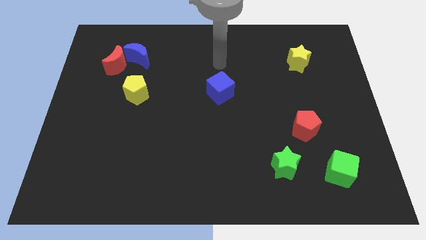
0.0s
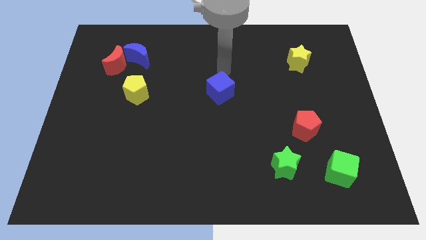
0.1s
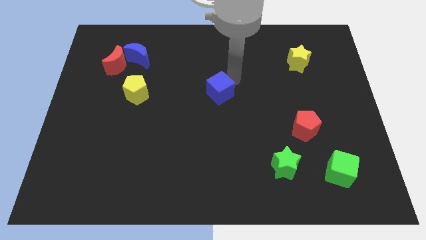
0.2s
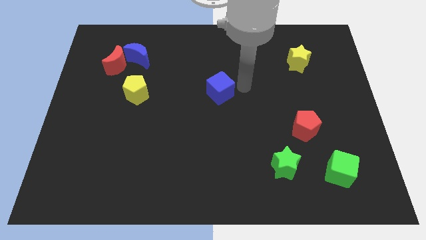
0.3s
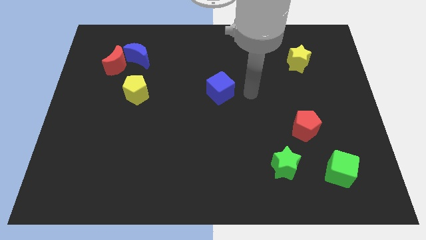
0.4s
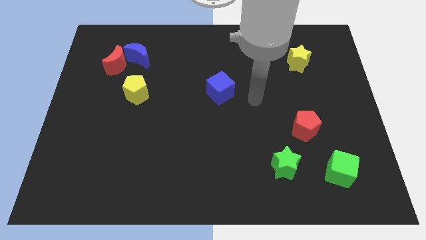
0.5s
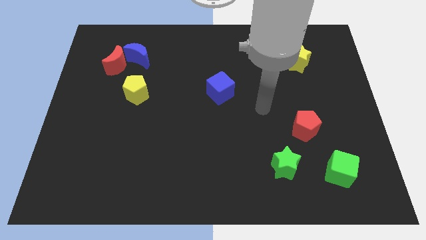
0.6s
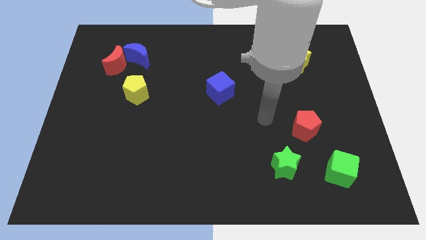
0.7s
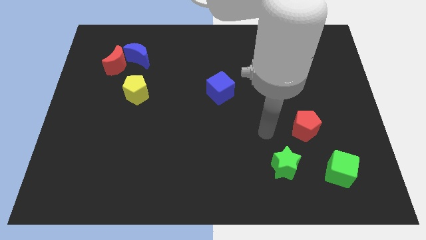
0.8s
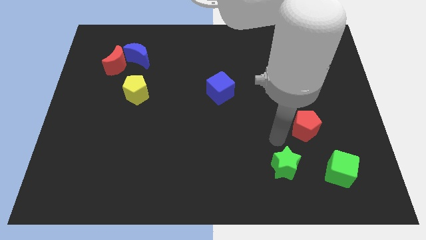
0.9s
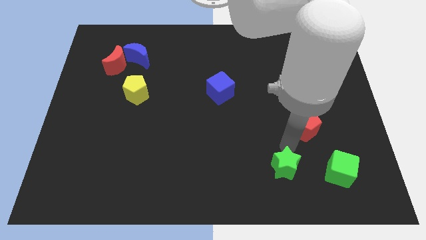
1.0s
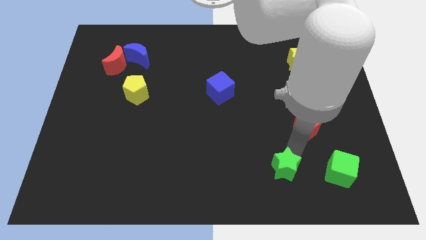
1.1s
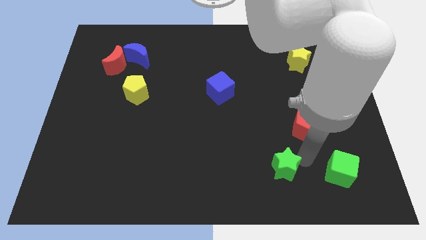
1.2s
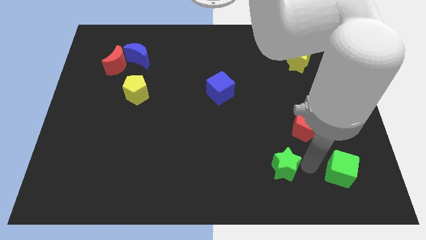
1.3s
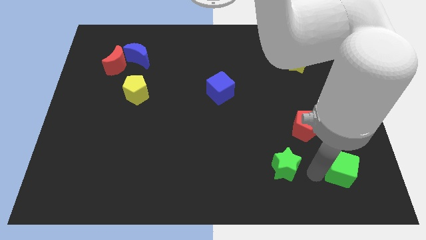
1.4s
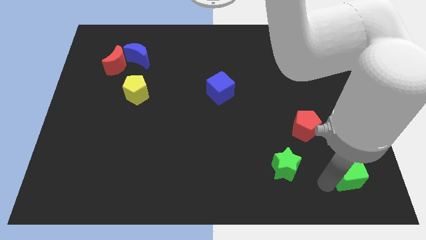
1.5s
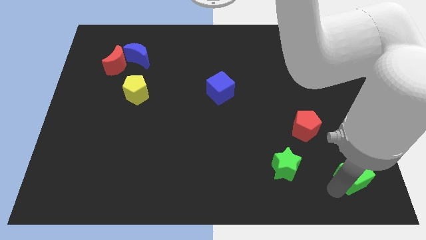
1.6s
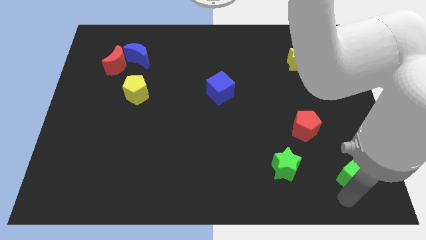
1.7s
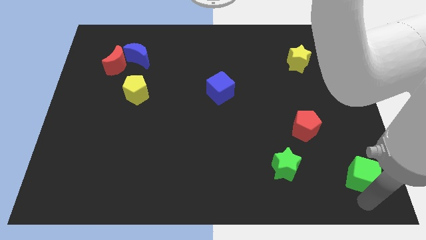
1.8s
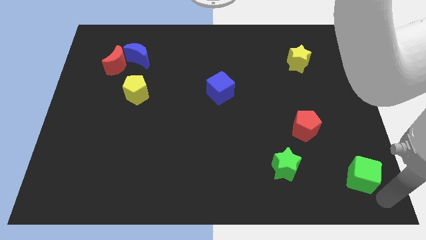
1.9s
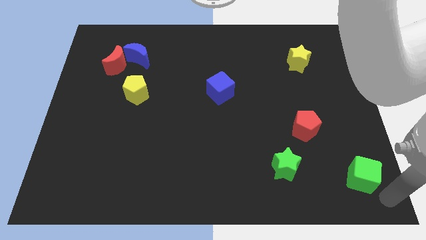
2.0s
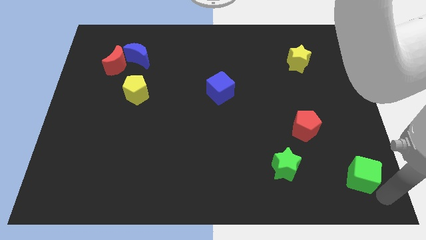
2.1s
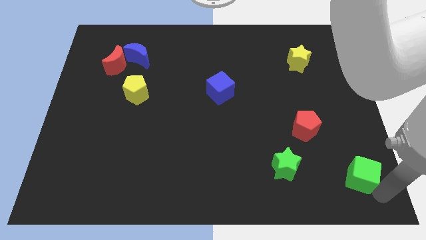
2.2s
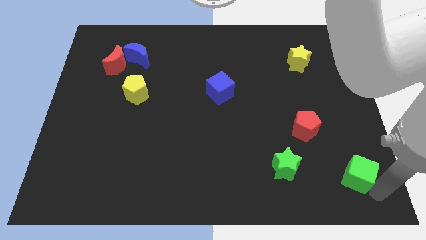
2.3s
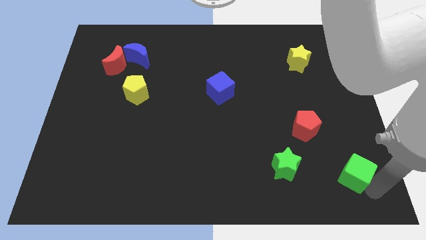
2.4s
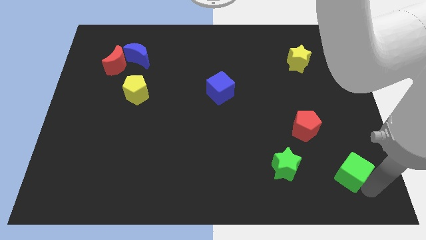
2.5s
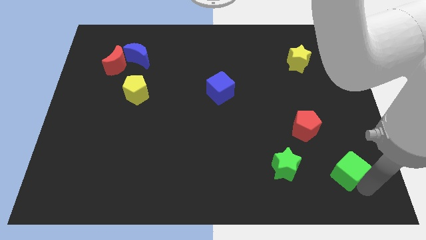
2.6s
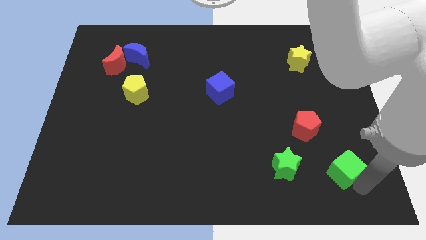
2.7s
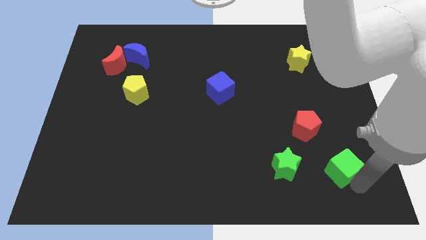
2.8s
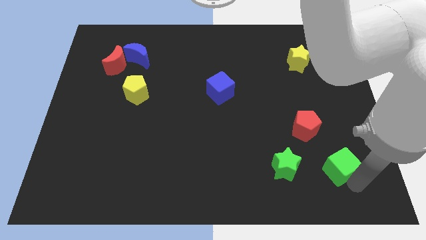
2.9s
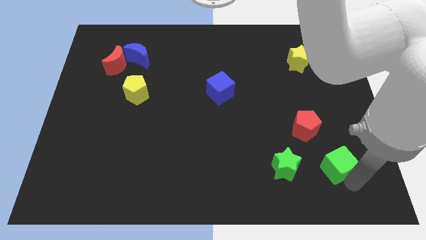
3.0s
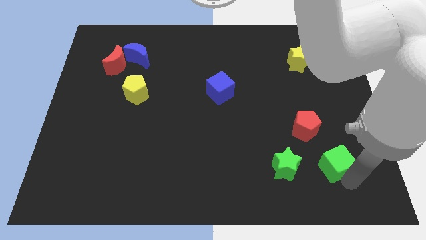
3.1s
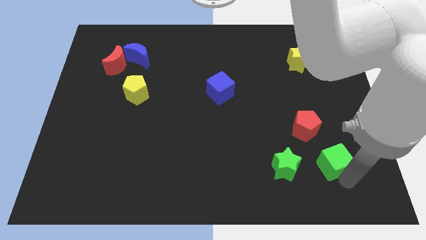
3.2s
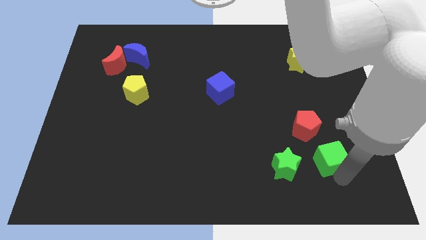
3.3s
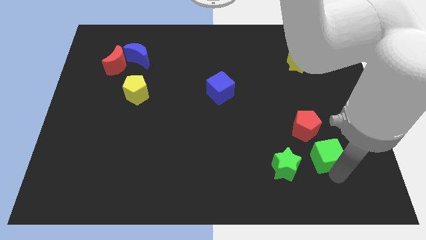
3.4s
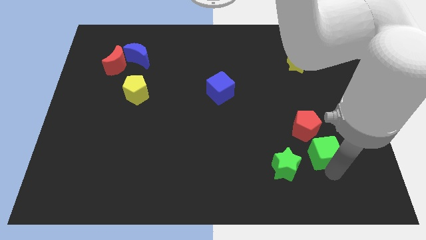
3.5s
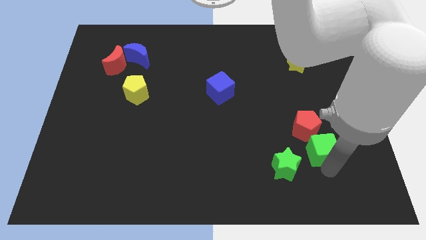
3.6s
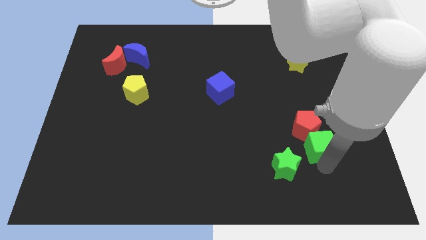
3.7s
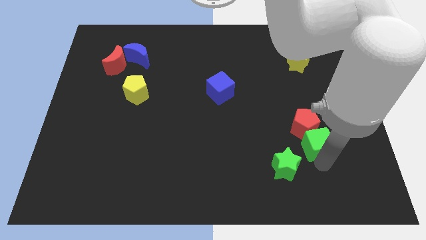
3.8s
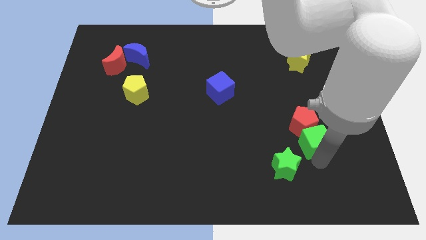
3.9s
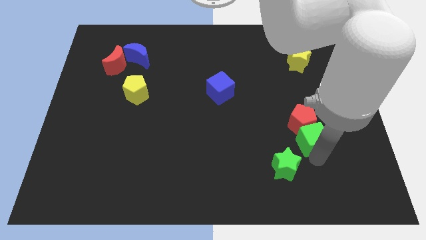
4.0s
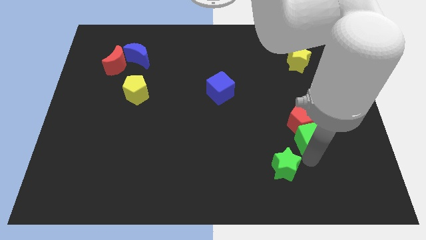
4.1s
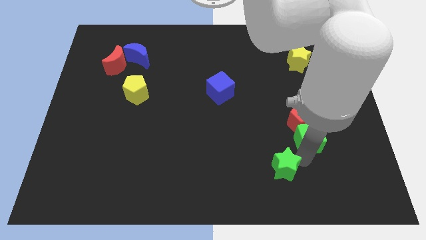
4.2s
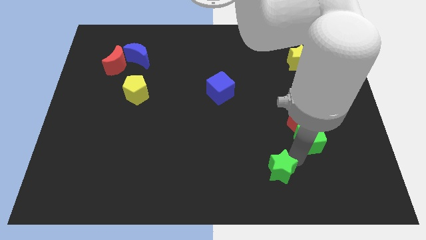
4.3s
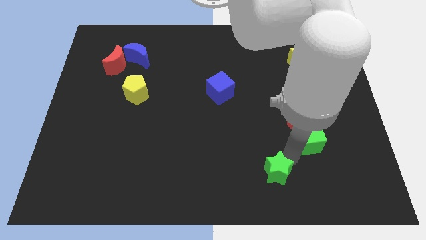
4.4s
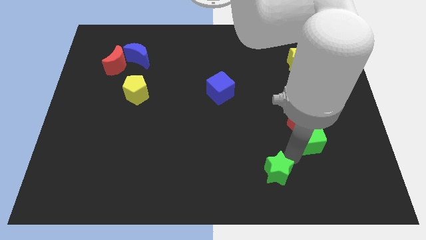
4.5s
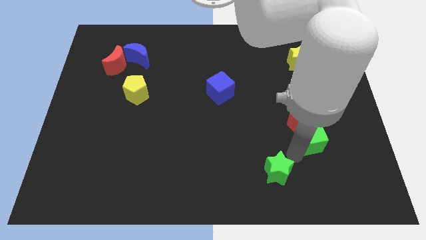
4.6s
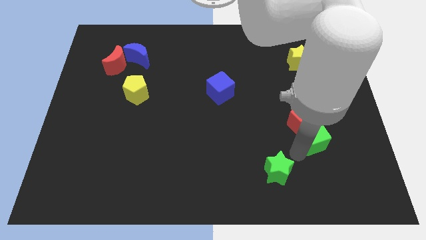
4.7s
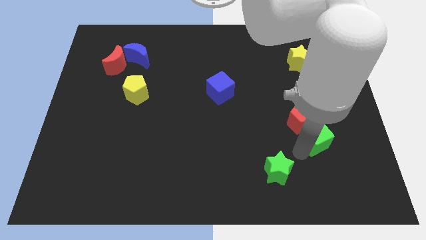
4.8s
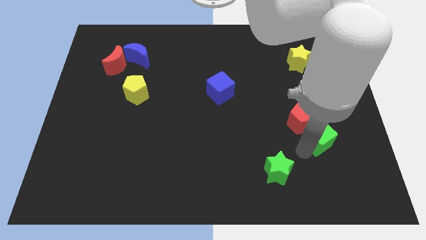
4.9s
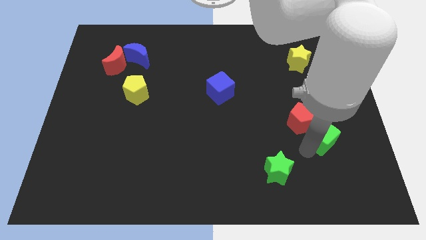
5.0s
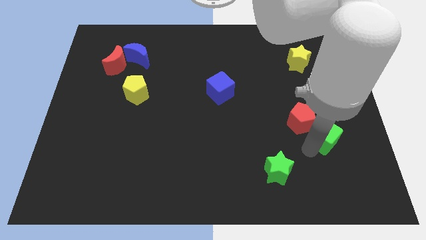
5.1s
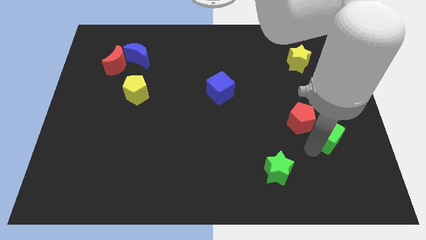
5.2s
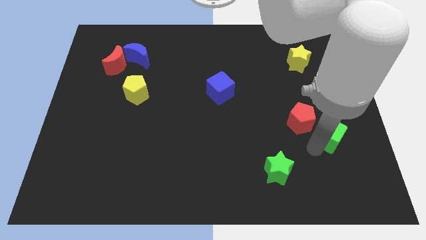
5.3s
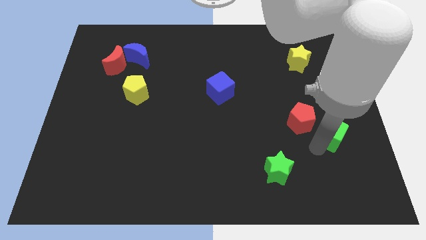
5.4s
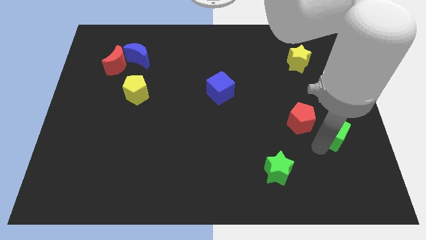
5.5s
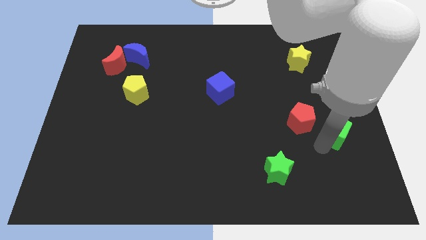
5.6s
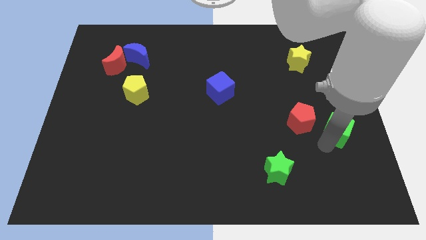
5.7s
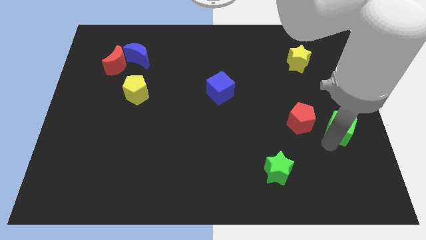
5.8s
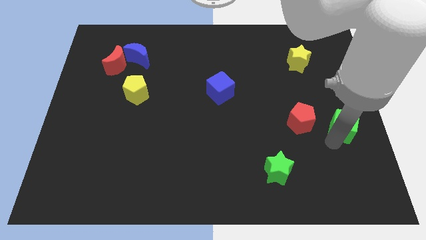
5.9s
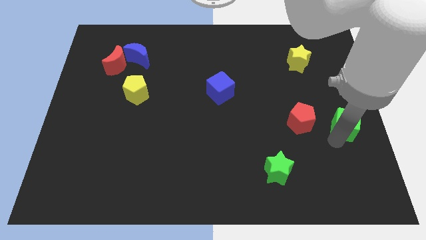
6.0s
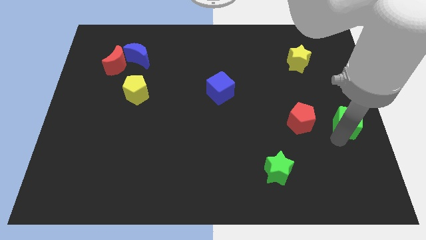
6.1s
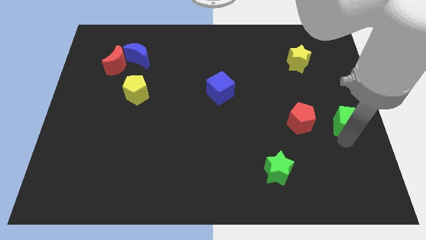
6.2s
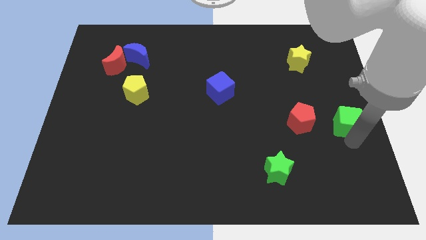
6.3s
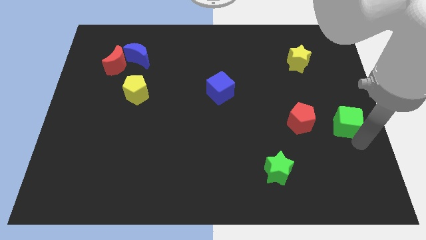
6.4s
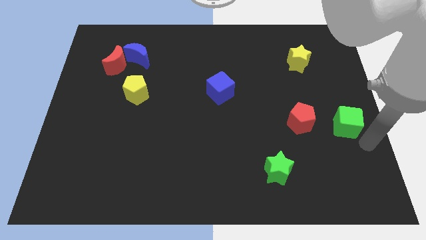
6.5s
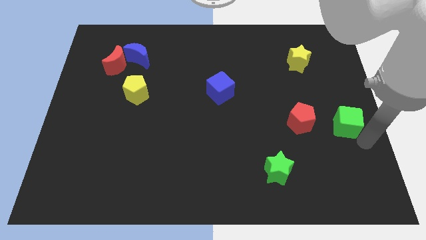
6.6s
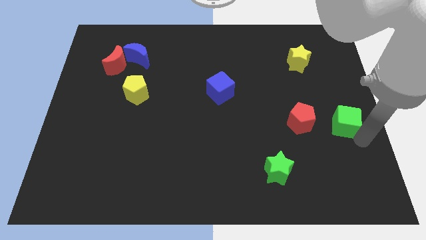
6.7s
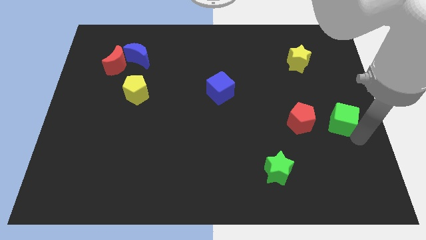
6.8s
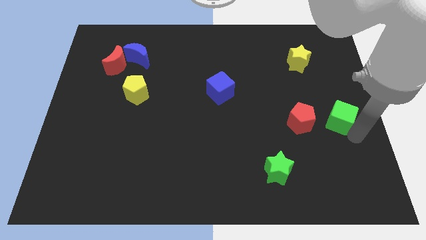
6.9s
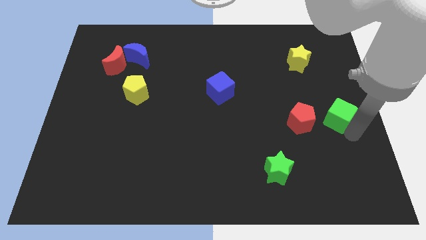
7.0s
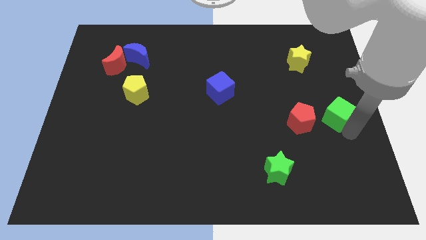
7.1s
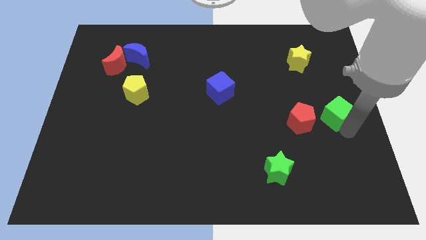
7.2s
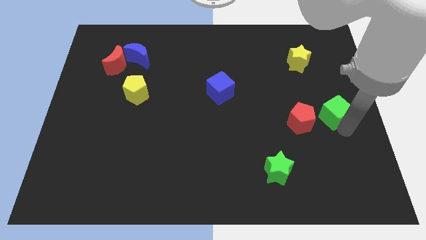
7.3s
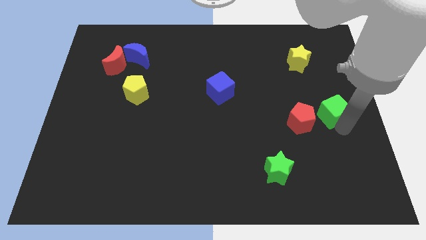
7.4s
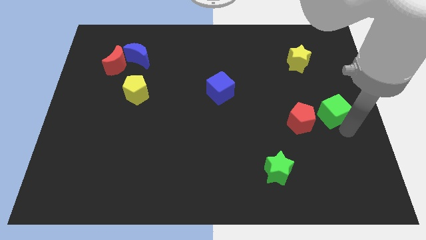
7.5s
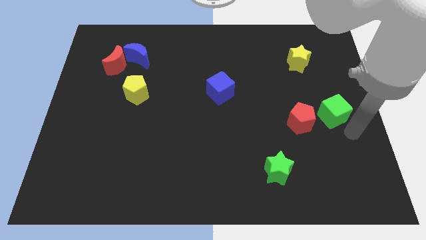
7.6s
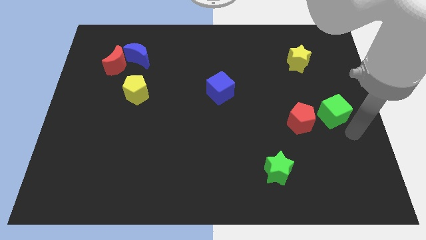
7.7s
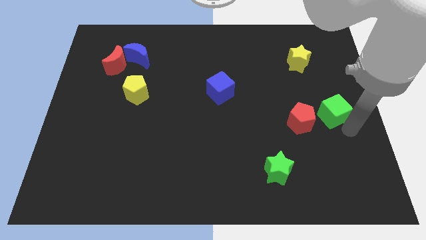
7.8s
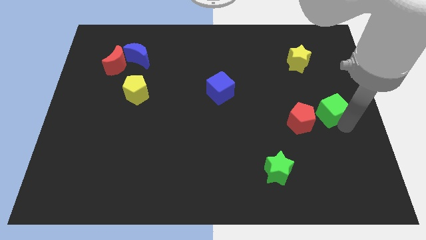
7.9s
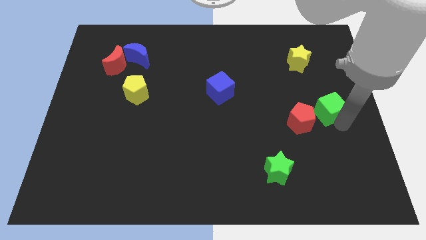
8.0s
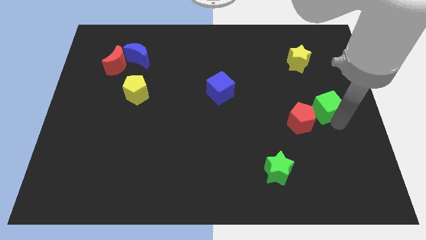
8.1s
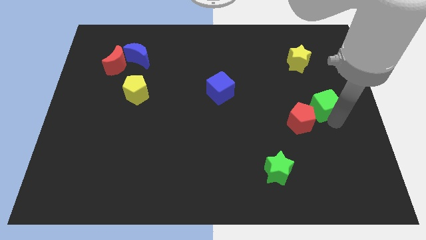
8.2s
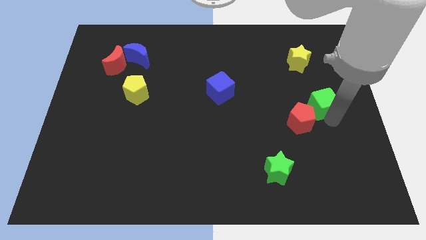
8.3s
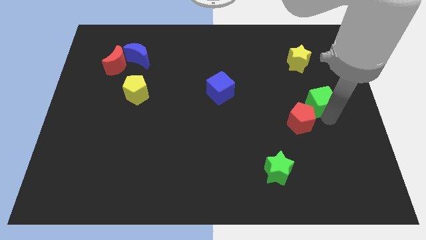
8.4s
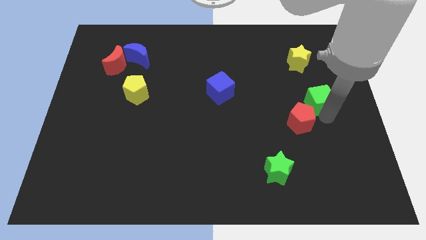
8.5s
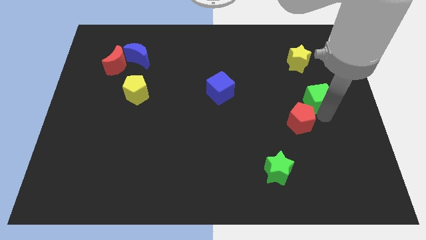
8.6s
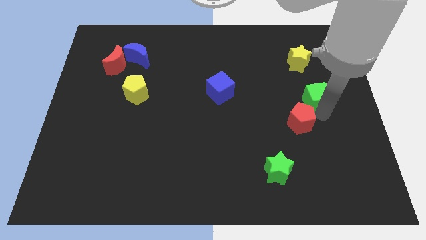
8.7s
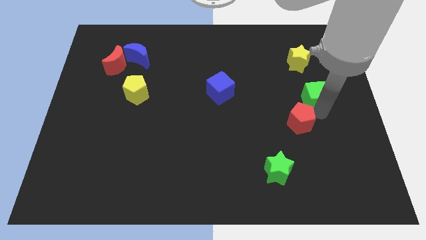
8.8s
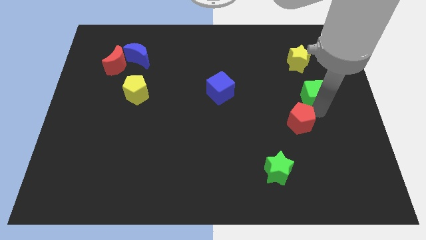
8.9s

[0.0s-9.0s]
push the green cube up
